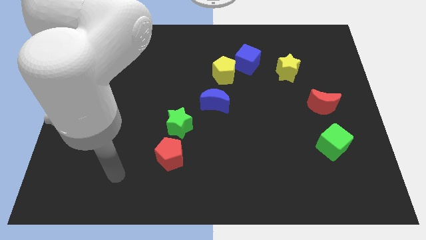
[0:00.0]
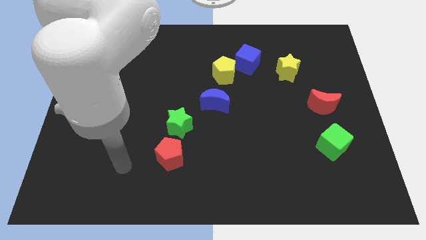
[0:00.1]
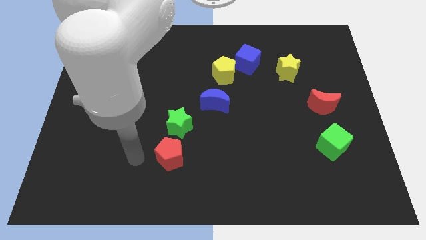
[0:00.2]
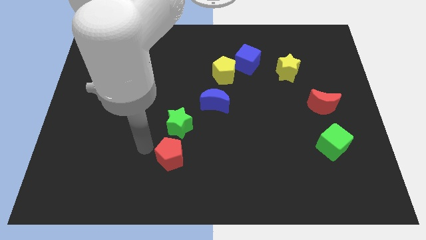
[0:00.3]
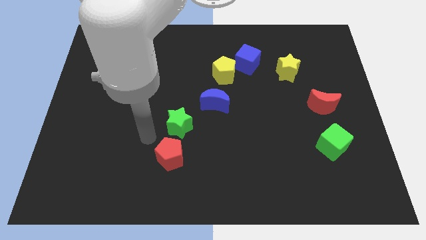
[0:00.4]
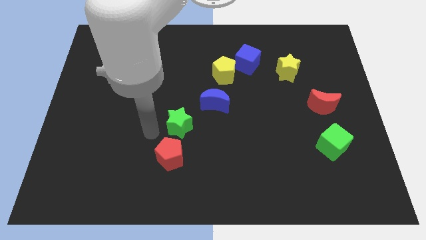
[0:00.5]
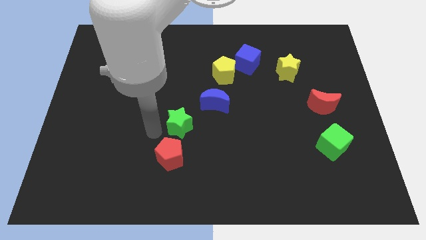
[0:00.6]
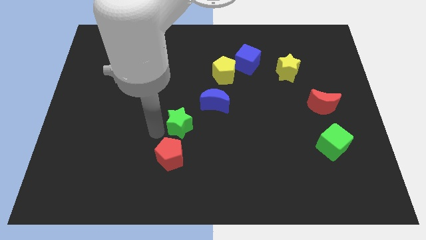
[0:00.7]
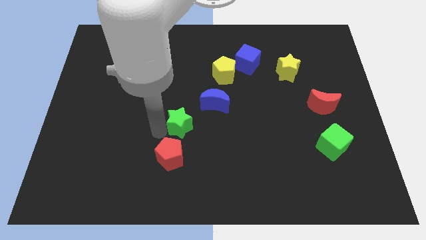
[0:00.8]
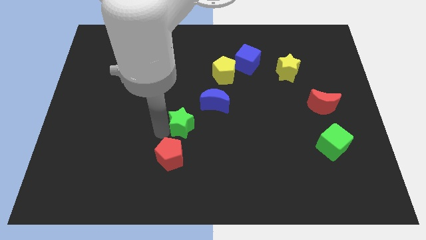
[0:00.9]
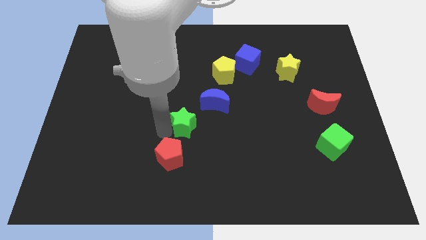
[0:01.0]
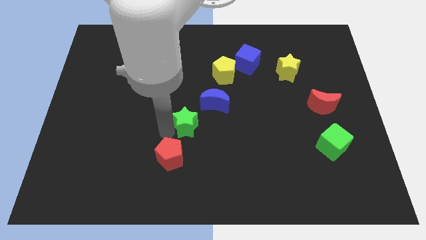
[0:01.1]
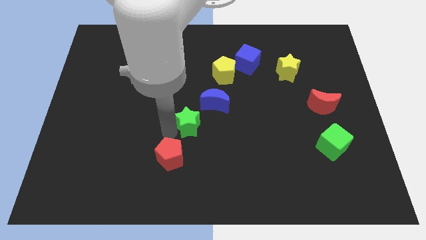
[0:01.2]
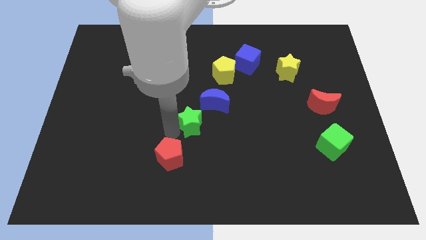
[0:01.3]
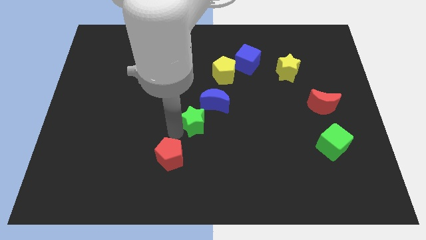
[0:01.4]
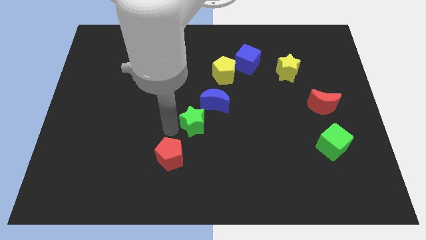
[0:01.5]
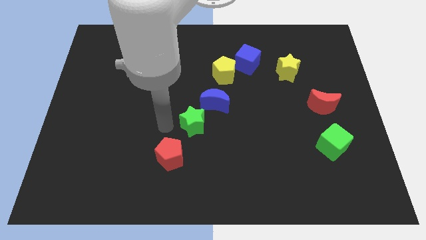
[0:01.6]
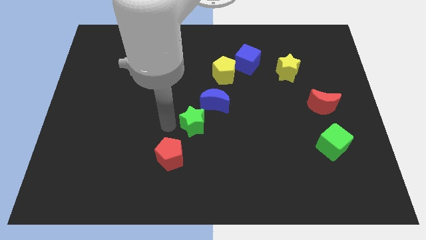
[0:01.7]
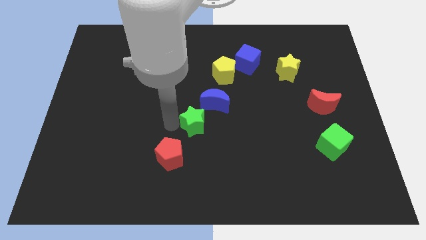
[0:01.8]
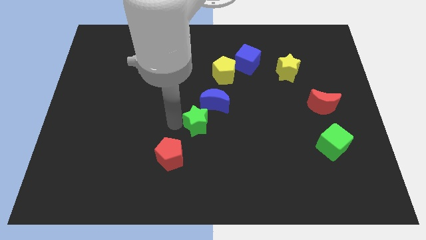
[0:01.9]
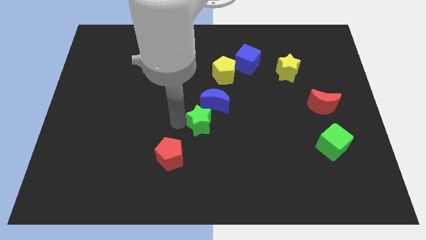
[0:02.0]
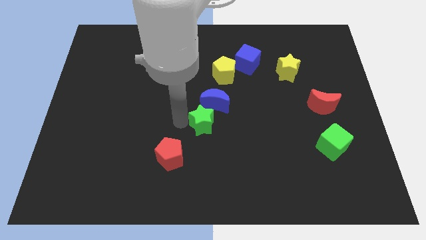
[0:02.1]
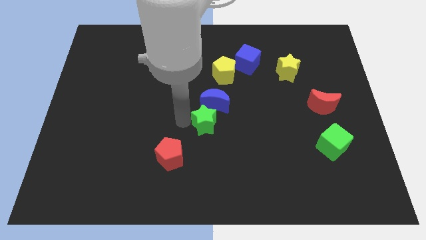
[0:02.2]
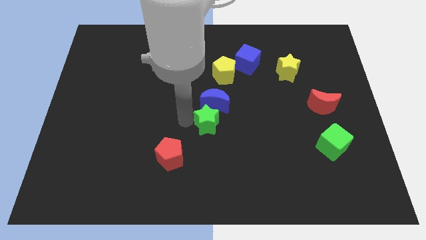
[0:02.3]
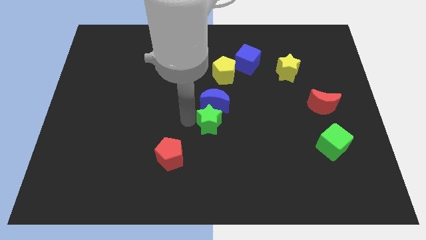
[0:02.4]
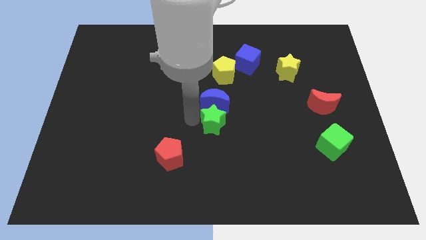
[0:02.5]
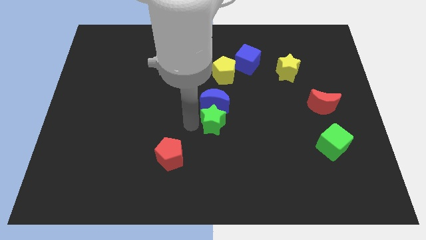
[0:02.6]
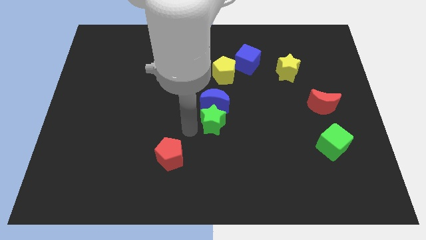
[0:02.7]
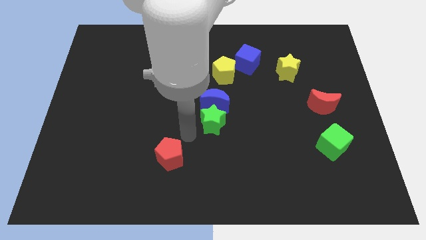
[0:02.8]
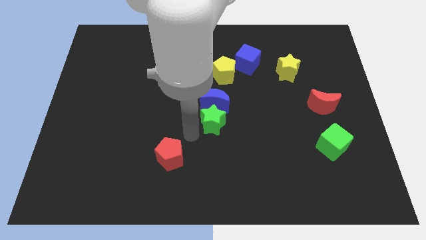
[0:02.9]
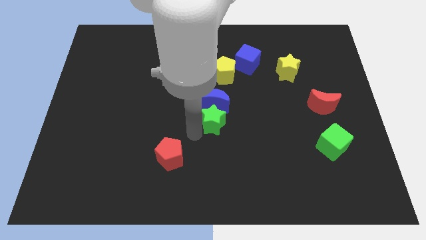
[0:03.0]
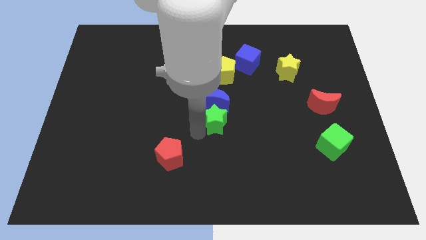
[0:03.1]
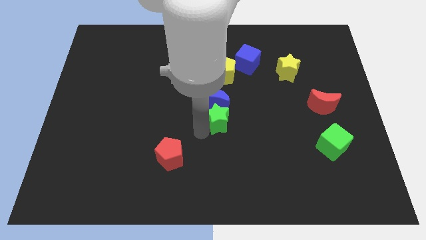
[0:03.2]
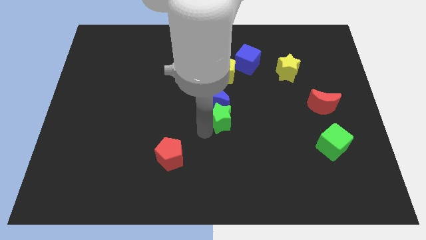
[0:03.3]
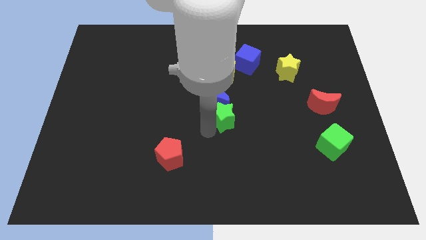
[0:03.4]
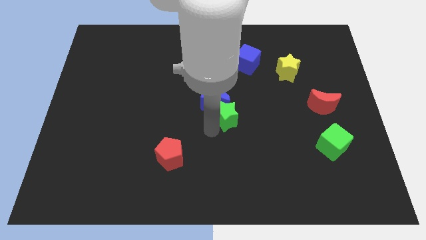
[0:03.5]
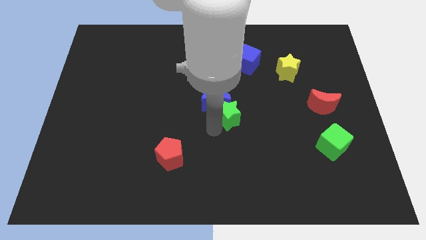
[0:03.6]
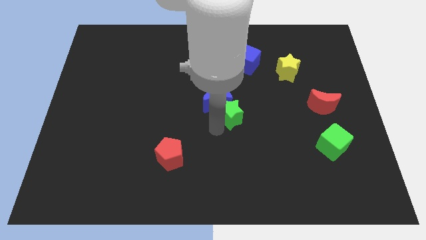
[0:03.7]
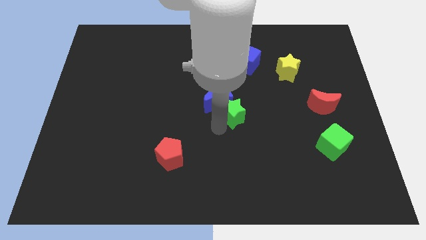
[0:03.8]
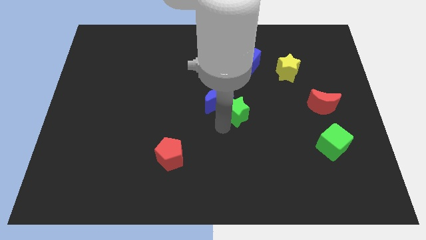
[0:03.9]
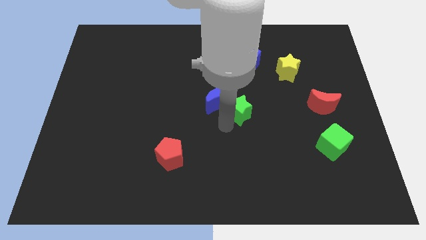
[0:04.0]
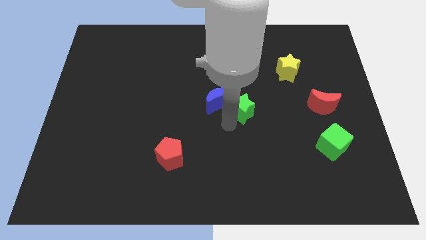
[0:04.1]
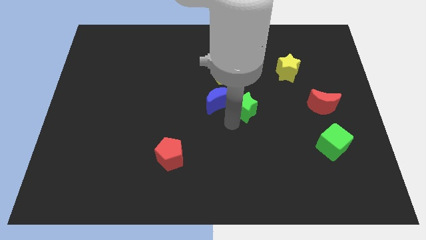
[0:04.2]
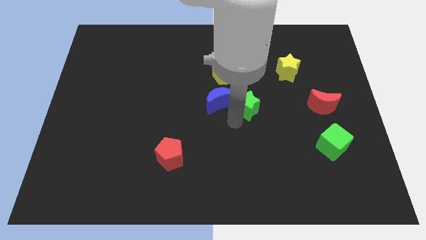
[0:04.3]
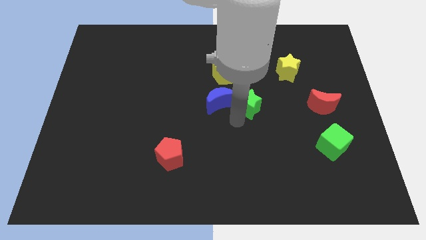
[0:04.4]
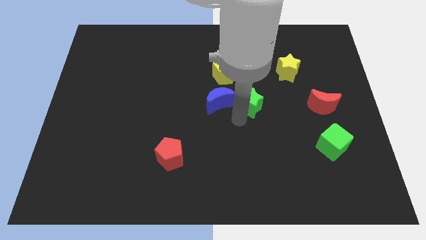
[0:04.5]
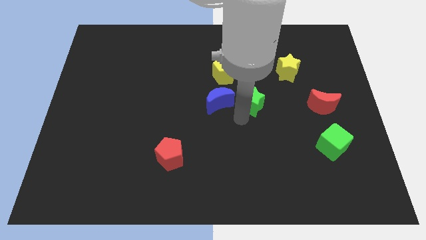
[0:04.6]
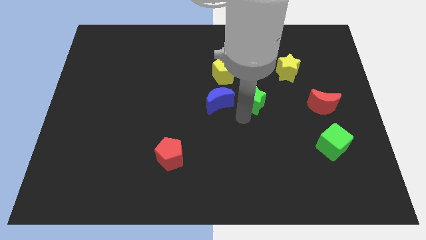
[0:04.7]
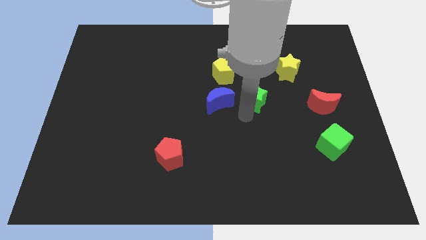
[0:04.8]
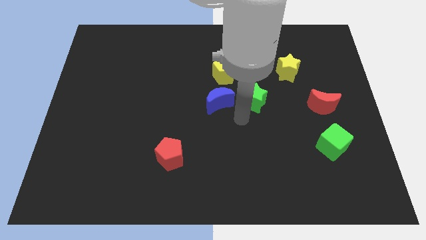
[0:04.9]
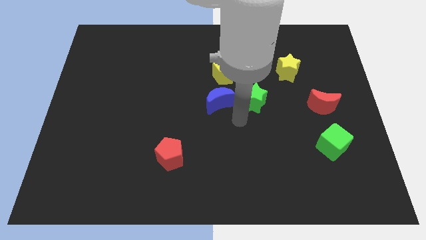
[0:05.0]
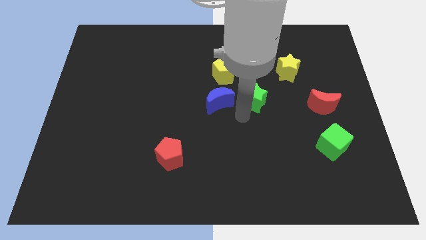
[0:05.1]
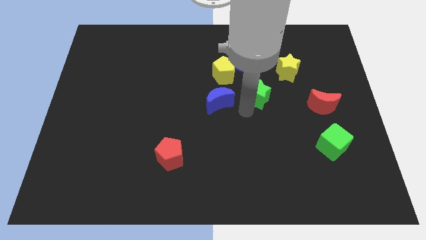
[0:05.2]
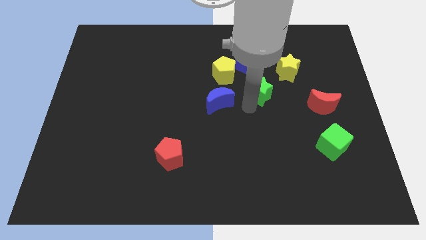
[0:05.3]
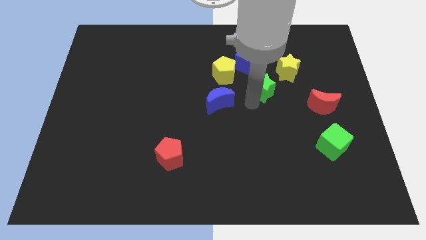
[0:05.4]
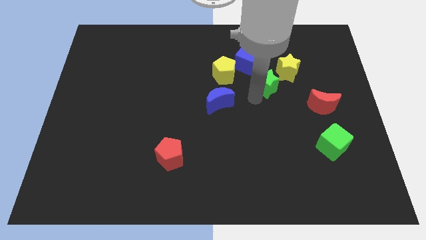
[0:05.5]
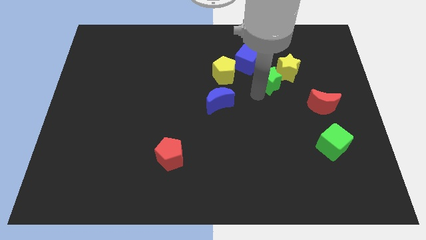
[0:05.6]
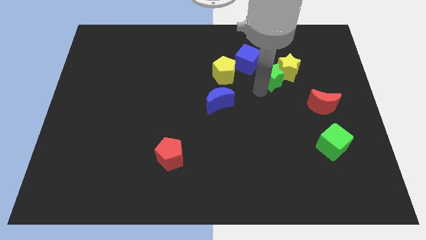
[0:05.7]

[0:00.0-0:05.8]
slide the green star close to the yellow star
